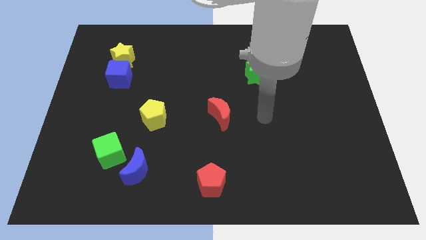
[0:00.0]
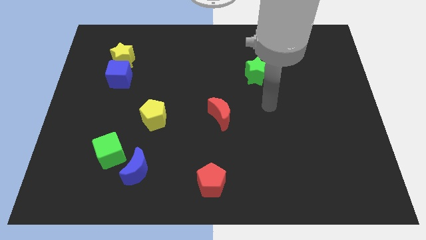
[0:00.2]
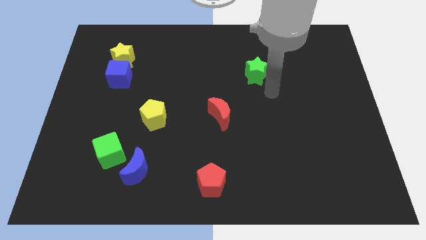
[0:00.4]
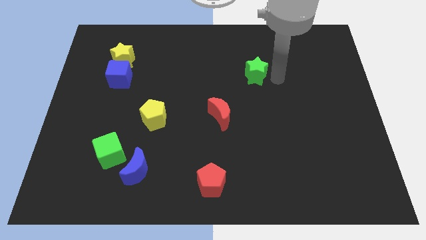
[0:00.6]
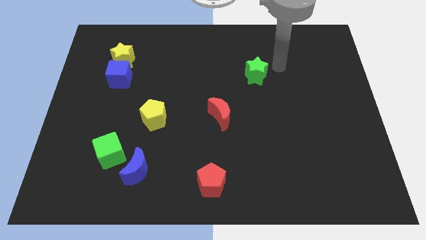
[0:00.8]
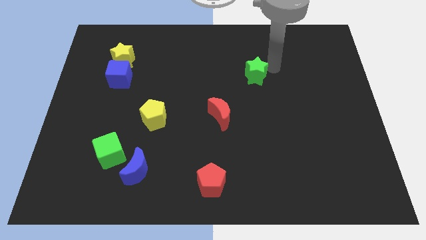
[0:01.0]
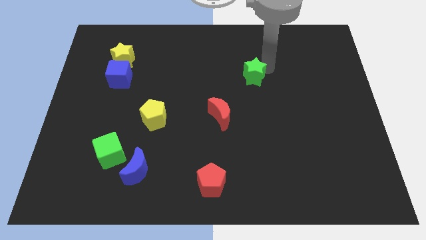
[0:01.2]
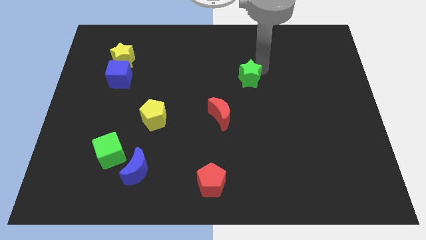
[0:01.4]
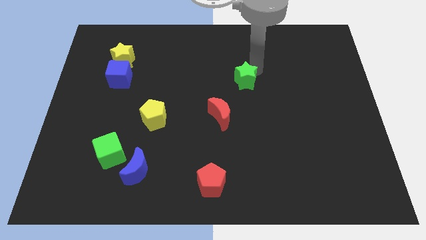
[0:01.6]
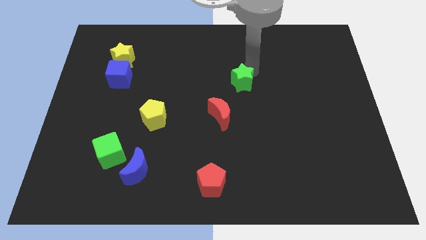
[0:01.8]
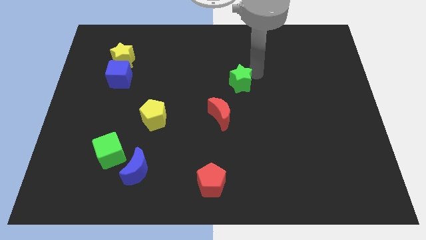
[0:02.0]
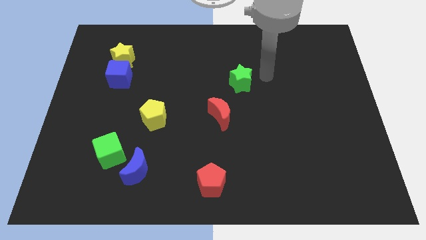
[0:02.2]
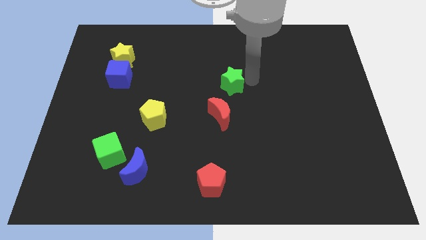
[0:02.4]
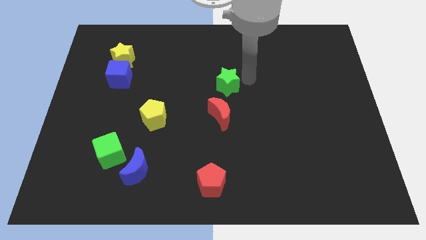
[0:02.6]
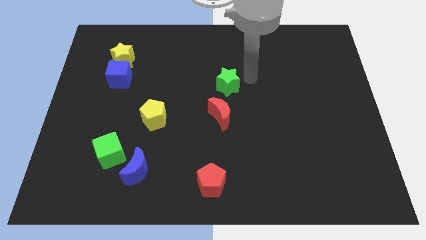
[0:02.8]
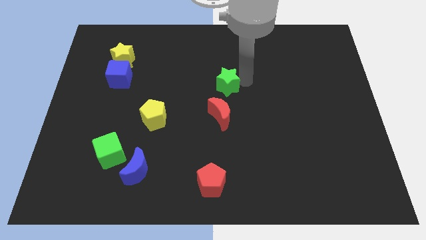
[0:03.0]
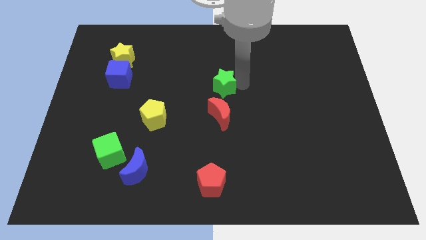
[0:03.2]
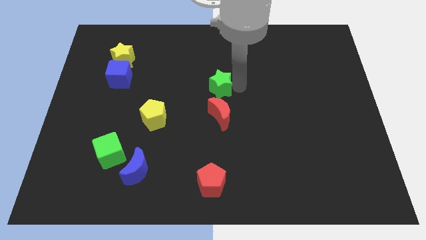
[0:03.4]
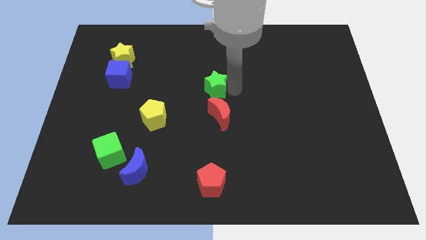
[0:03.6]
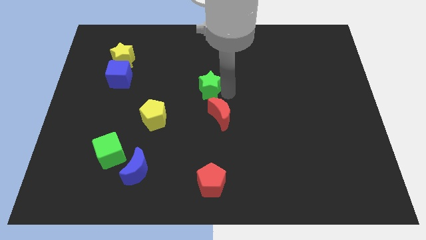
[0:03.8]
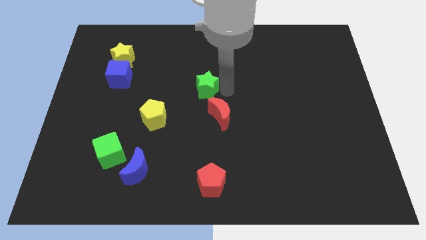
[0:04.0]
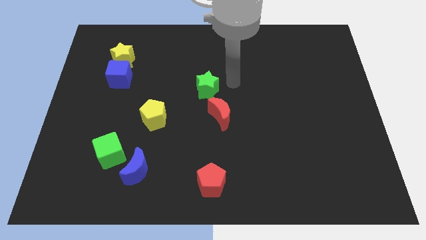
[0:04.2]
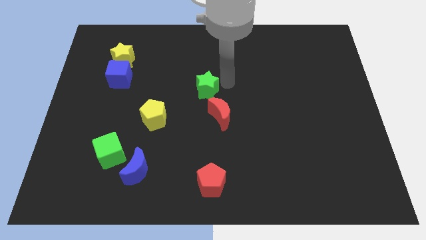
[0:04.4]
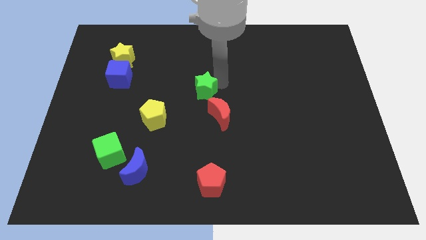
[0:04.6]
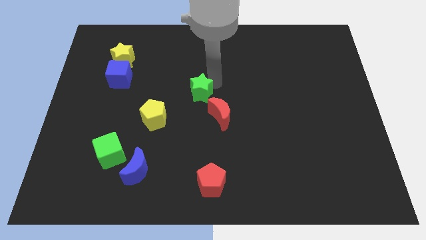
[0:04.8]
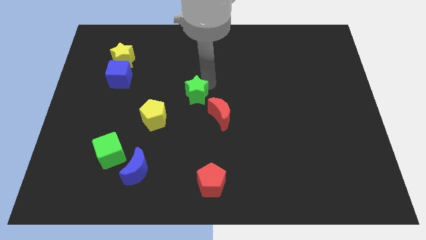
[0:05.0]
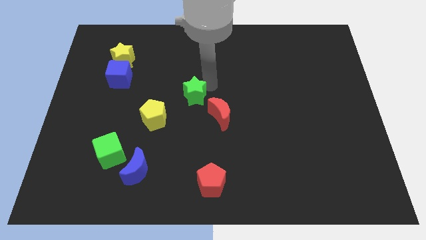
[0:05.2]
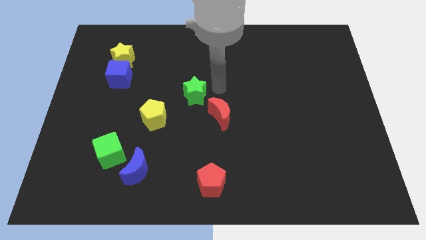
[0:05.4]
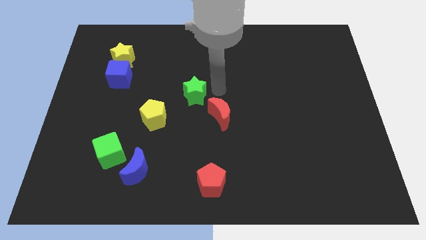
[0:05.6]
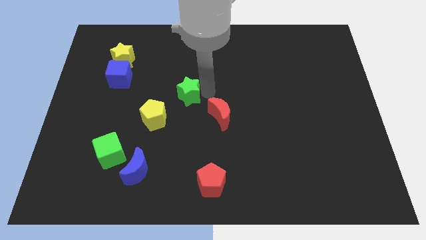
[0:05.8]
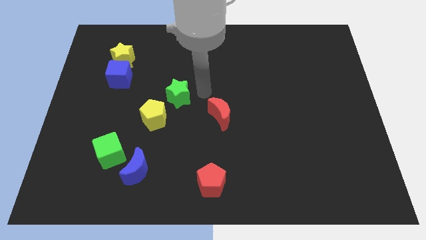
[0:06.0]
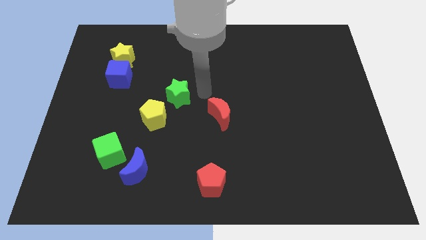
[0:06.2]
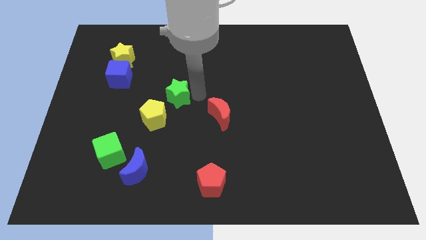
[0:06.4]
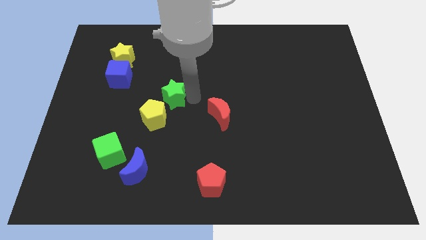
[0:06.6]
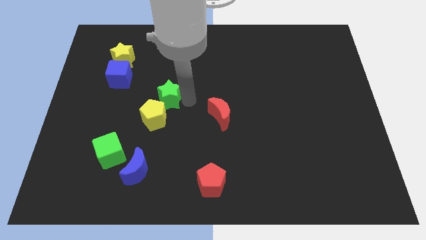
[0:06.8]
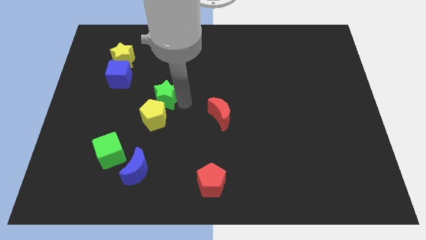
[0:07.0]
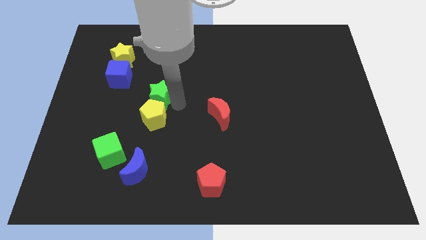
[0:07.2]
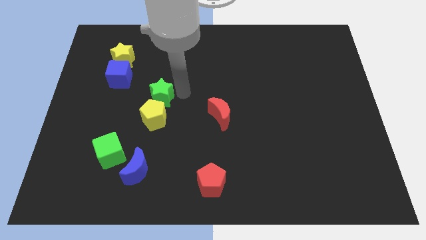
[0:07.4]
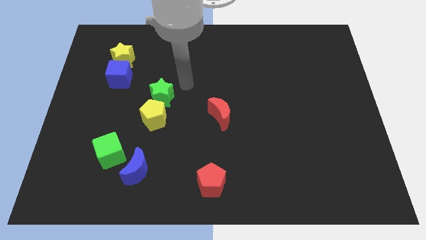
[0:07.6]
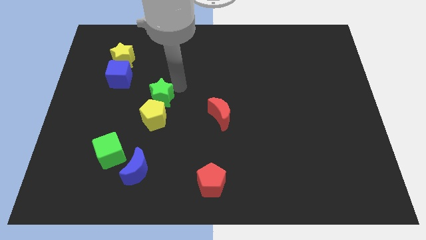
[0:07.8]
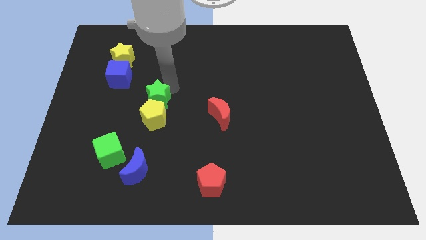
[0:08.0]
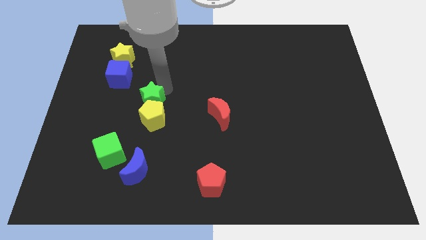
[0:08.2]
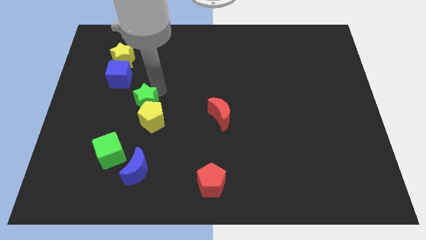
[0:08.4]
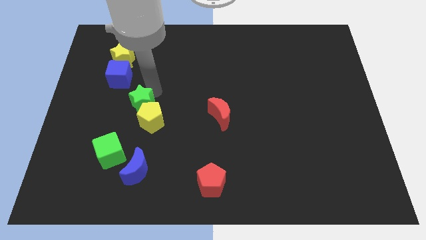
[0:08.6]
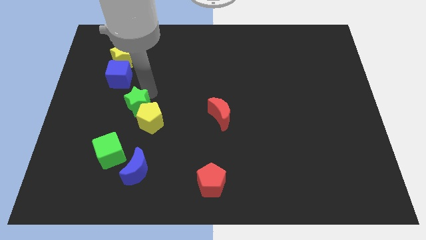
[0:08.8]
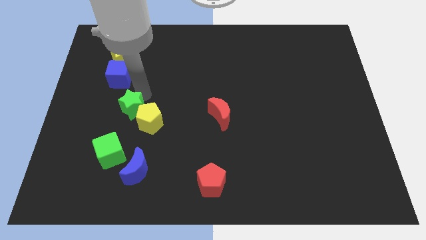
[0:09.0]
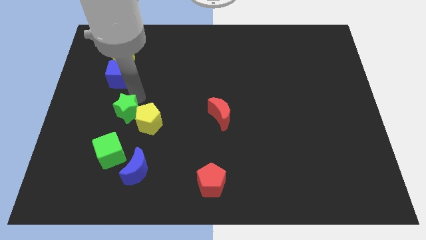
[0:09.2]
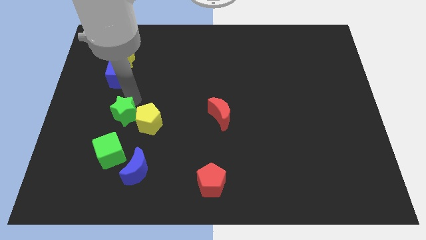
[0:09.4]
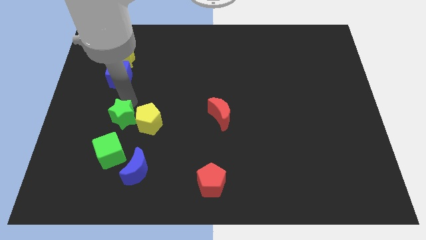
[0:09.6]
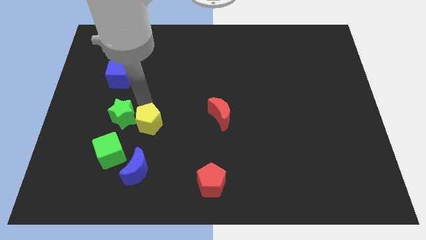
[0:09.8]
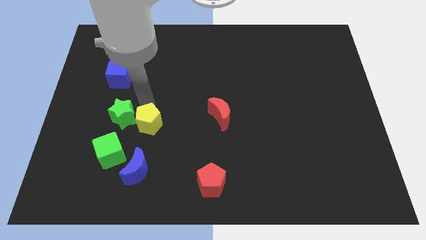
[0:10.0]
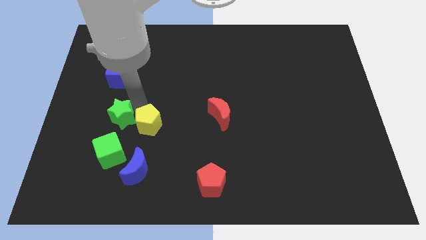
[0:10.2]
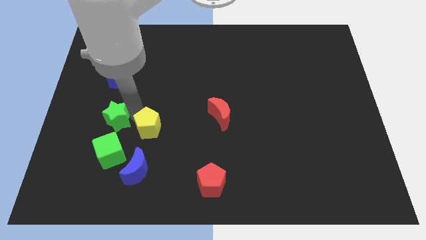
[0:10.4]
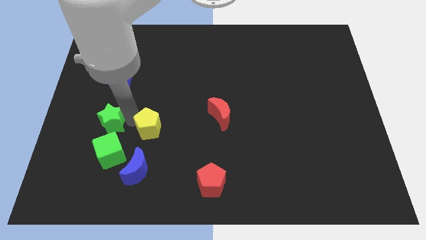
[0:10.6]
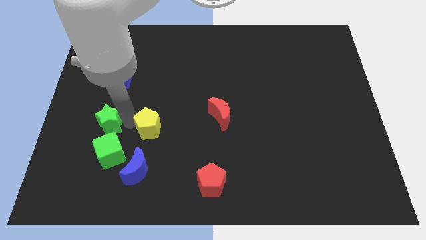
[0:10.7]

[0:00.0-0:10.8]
move the green star to the top left of the green cube

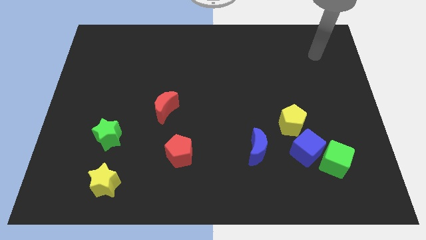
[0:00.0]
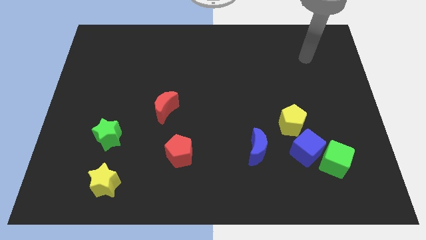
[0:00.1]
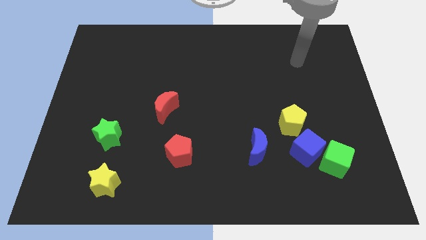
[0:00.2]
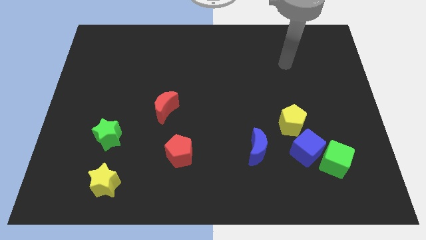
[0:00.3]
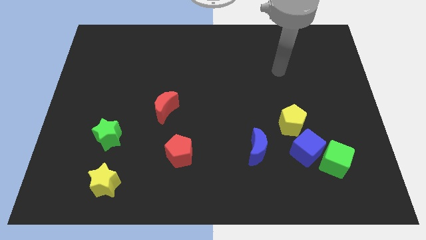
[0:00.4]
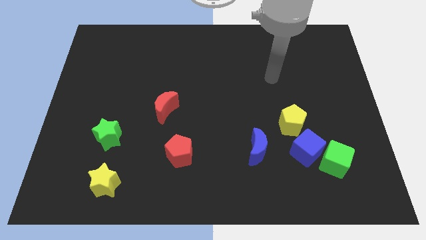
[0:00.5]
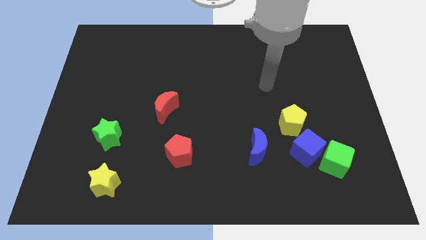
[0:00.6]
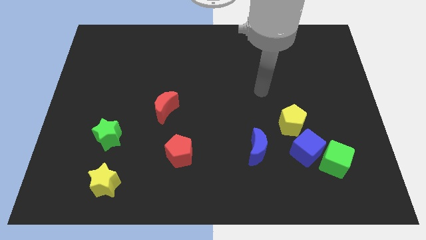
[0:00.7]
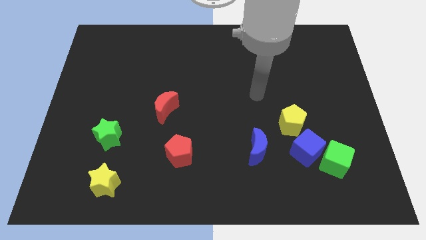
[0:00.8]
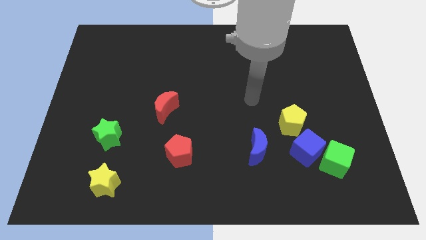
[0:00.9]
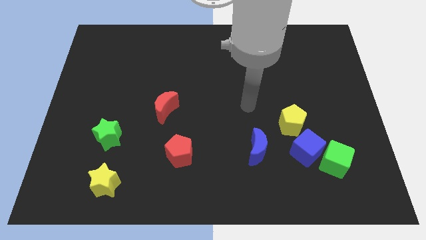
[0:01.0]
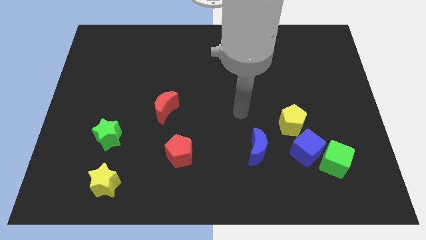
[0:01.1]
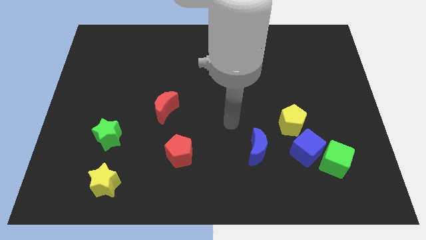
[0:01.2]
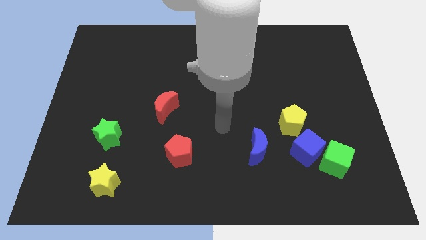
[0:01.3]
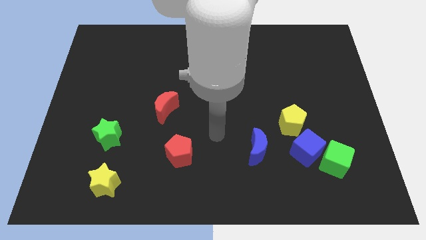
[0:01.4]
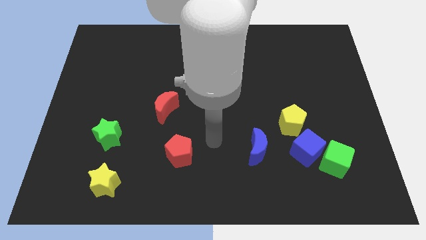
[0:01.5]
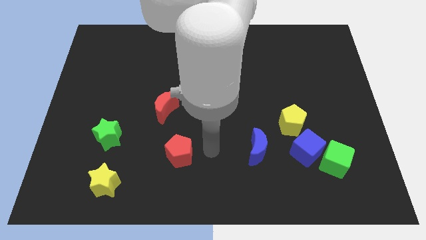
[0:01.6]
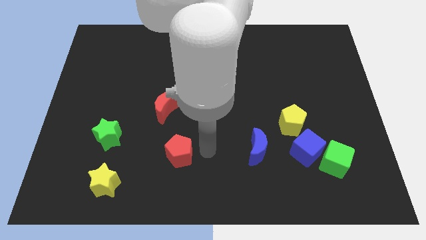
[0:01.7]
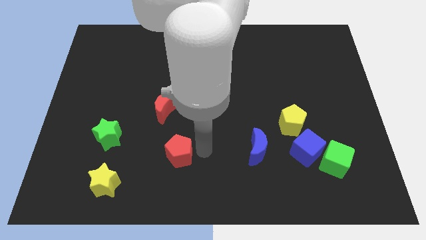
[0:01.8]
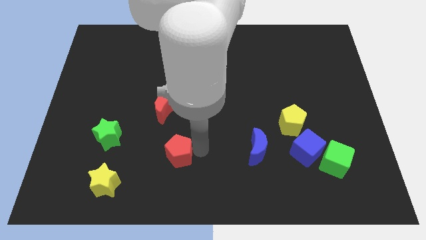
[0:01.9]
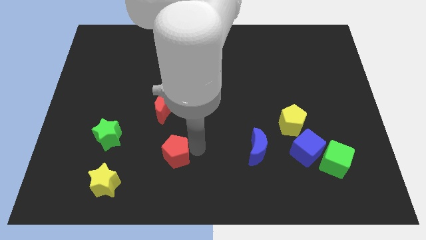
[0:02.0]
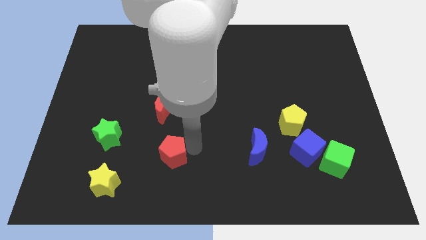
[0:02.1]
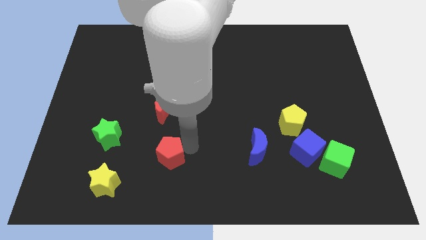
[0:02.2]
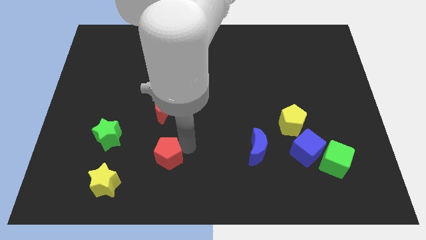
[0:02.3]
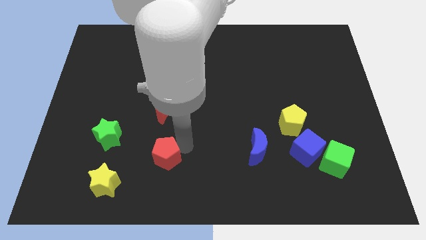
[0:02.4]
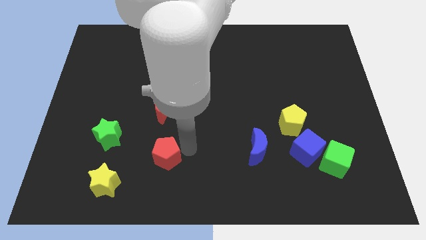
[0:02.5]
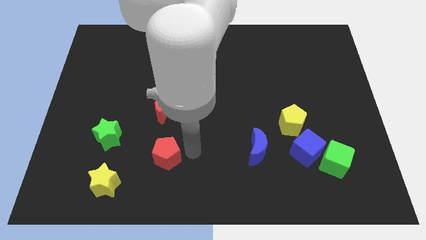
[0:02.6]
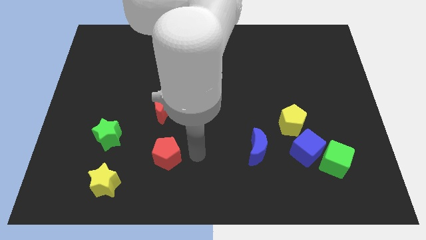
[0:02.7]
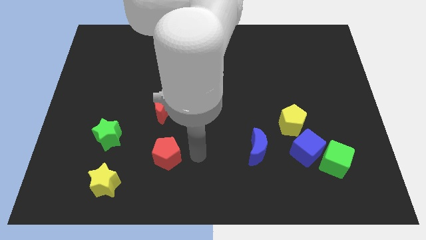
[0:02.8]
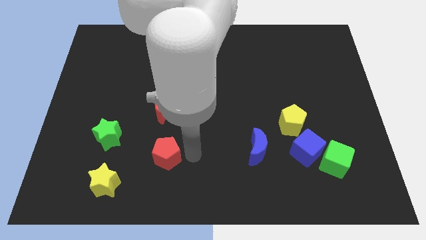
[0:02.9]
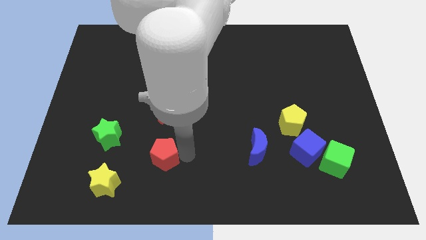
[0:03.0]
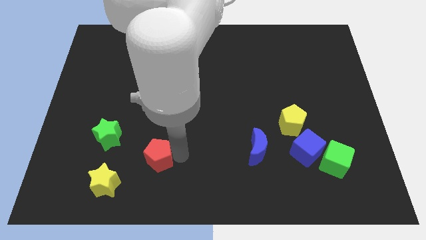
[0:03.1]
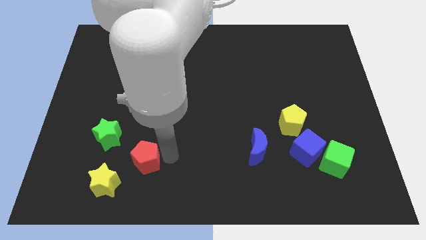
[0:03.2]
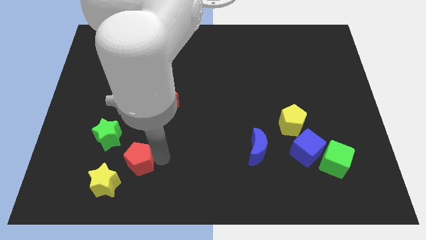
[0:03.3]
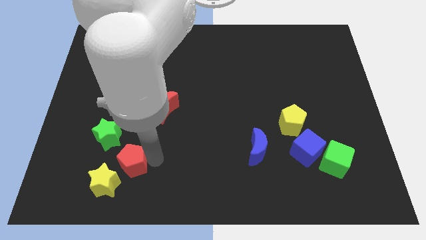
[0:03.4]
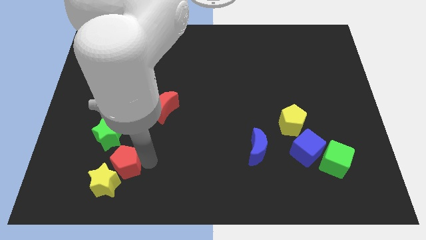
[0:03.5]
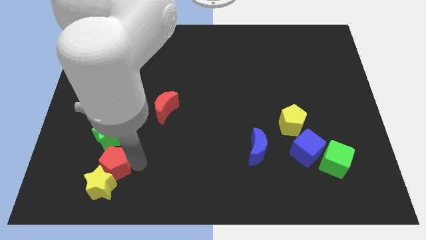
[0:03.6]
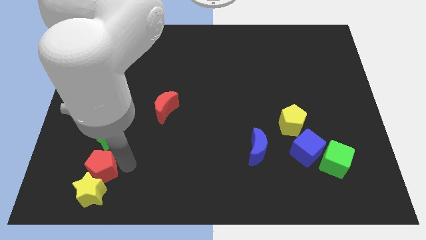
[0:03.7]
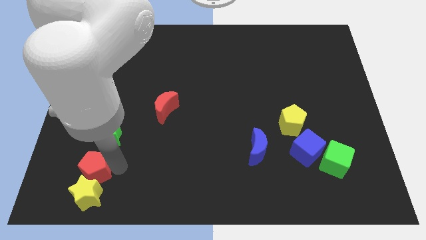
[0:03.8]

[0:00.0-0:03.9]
move the red pentagon diagonally down and to the left of the green star
